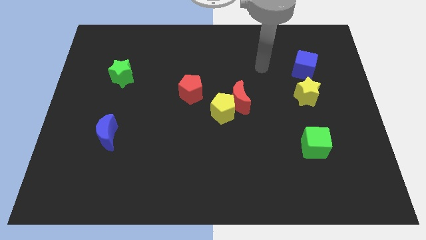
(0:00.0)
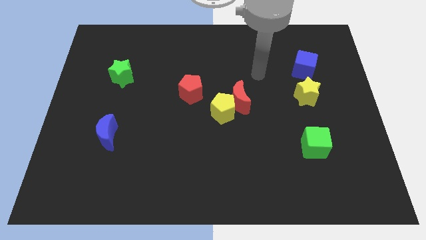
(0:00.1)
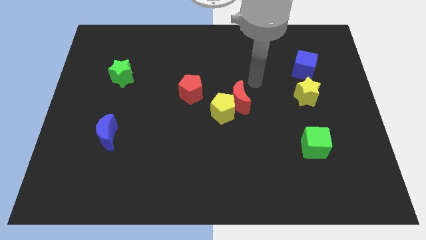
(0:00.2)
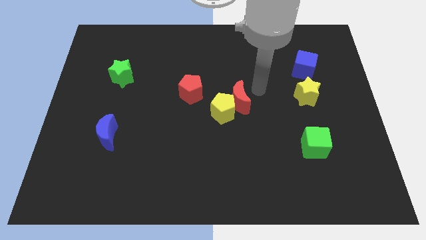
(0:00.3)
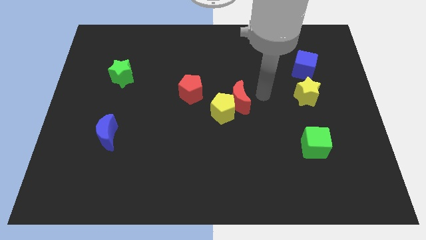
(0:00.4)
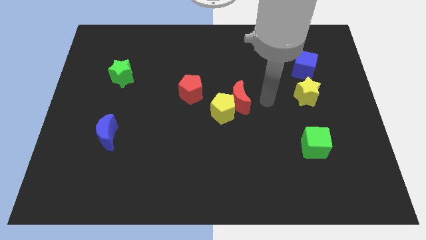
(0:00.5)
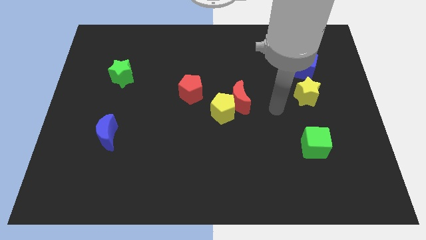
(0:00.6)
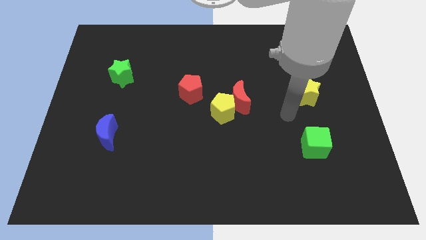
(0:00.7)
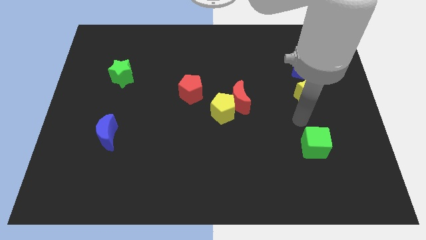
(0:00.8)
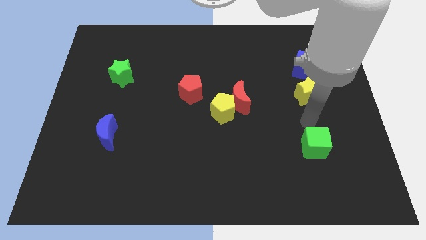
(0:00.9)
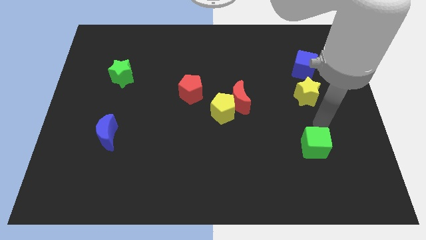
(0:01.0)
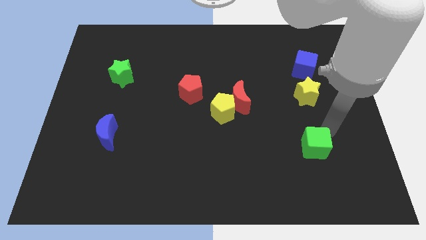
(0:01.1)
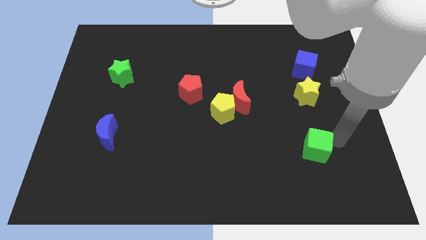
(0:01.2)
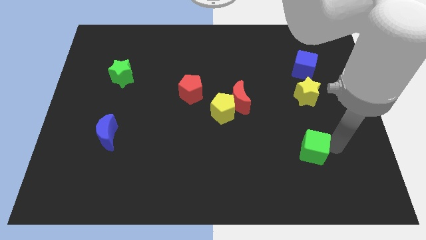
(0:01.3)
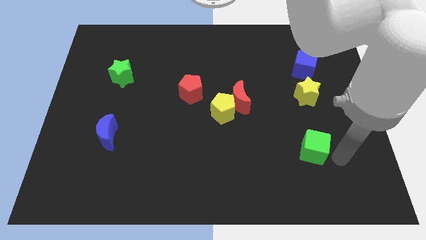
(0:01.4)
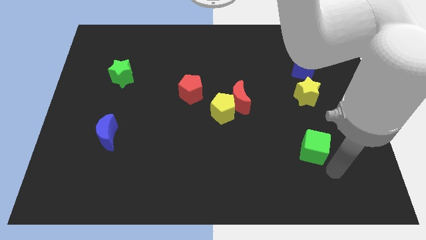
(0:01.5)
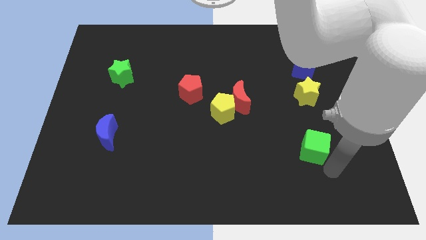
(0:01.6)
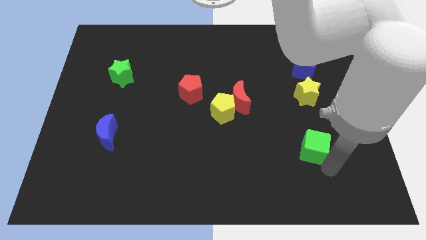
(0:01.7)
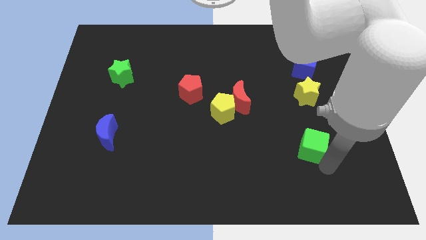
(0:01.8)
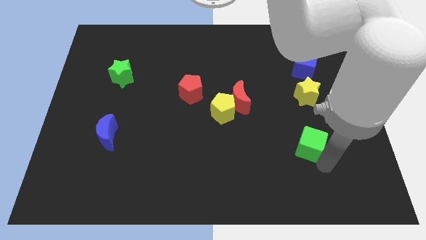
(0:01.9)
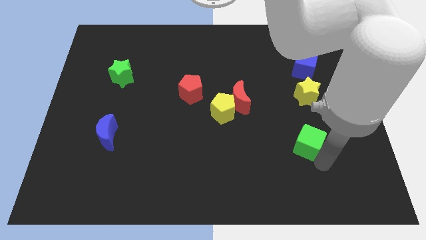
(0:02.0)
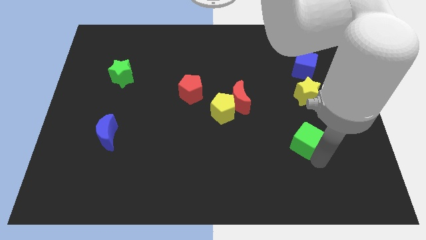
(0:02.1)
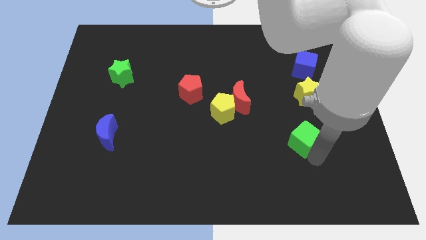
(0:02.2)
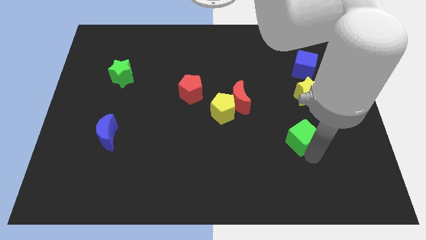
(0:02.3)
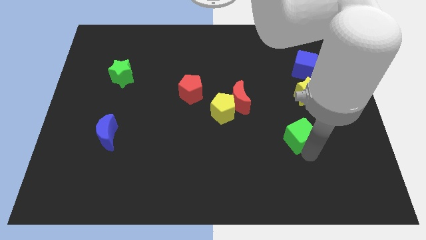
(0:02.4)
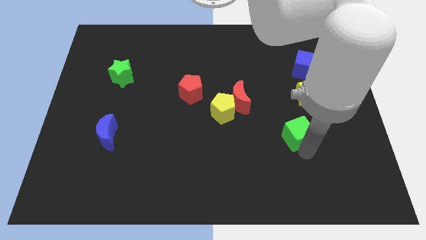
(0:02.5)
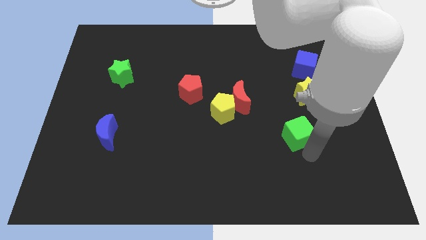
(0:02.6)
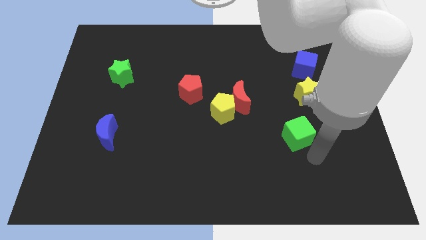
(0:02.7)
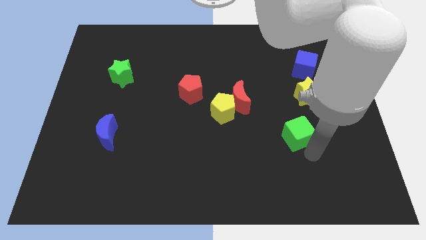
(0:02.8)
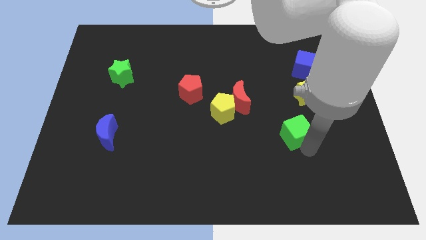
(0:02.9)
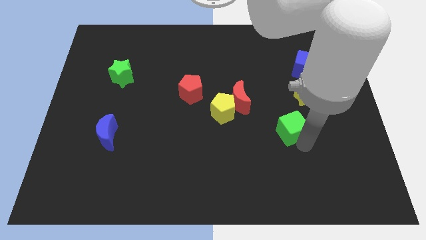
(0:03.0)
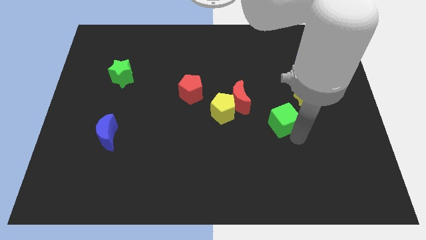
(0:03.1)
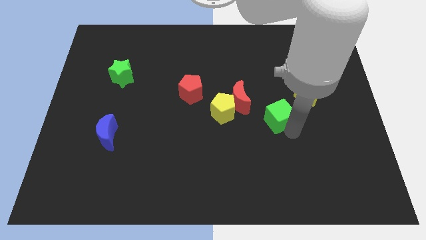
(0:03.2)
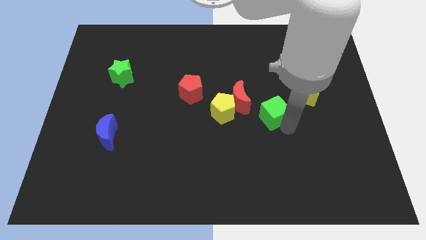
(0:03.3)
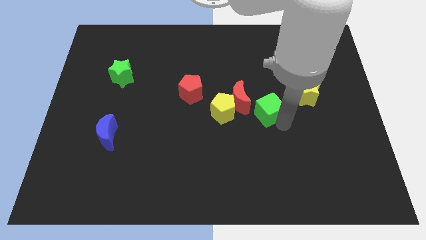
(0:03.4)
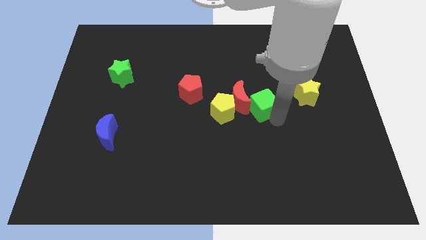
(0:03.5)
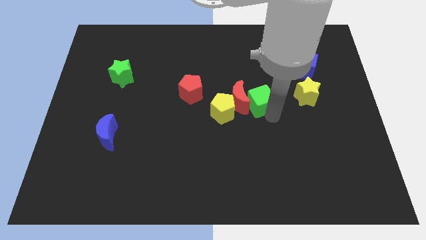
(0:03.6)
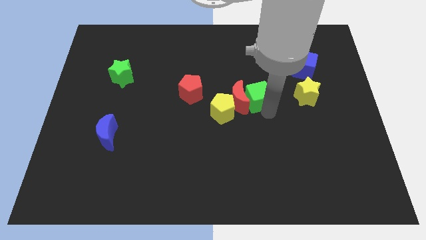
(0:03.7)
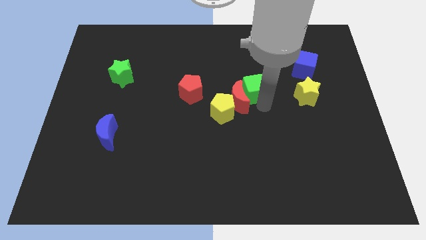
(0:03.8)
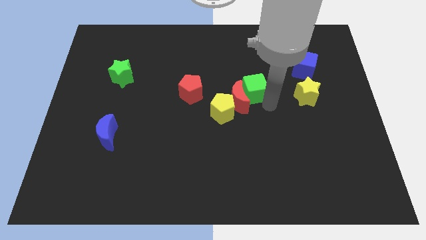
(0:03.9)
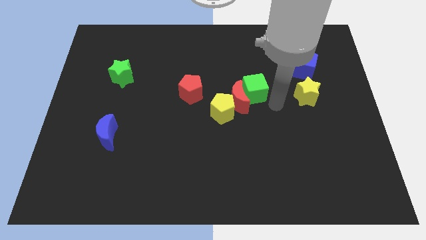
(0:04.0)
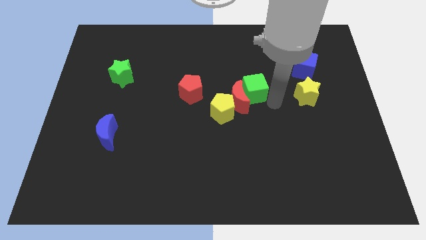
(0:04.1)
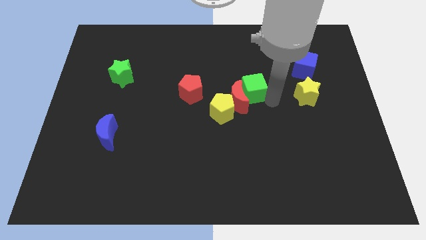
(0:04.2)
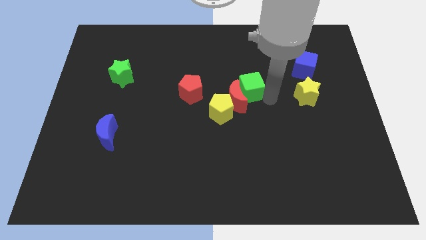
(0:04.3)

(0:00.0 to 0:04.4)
move the green cube up and left diagonally

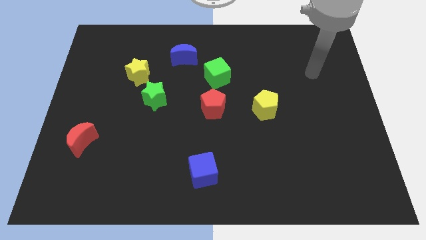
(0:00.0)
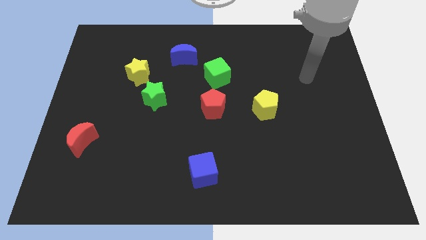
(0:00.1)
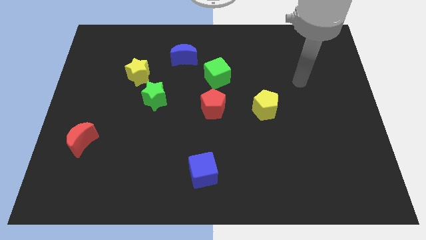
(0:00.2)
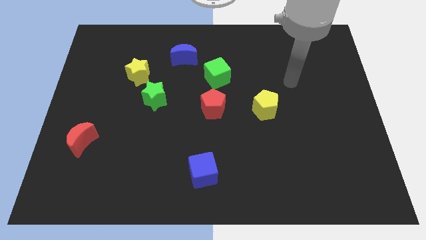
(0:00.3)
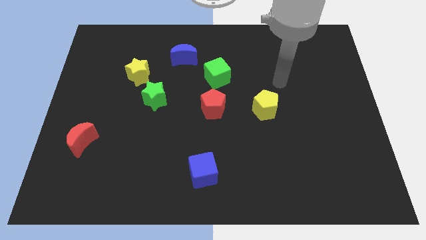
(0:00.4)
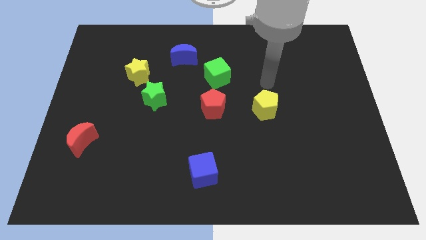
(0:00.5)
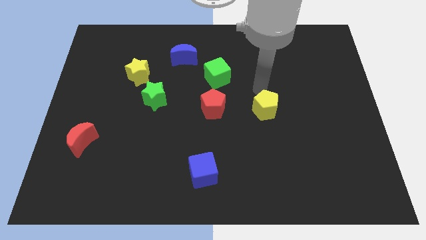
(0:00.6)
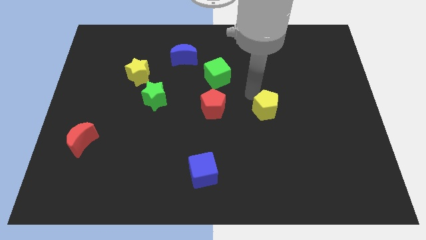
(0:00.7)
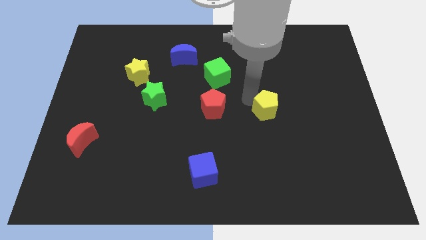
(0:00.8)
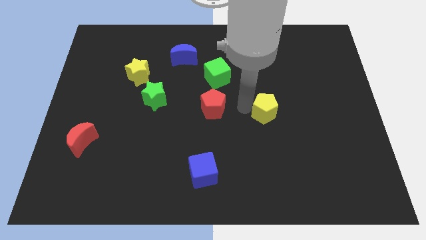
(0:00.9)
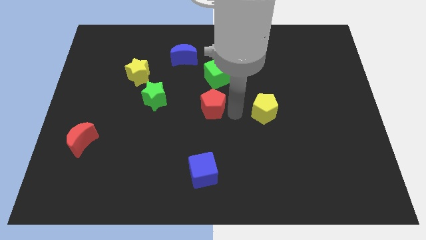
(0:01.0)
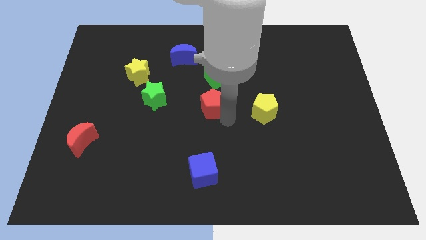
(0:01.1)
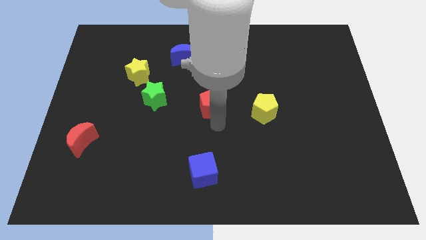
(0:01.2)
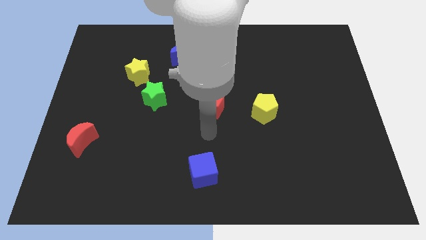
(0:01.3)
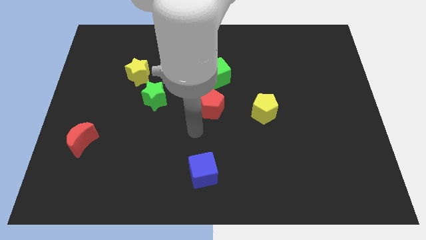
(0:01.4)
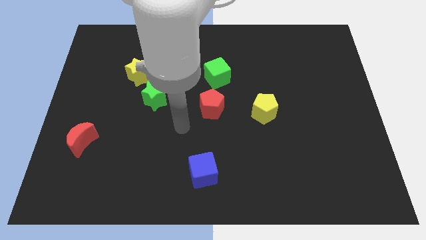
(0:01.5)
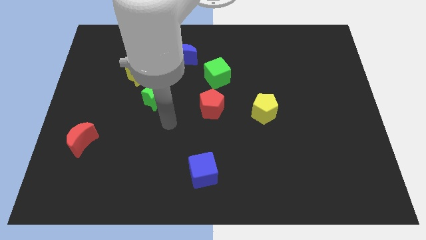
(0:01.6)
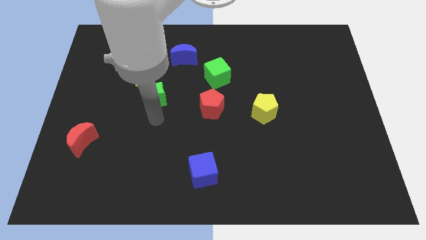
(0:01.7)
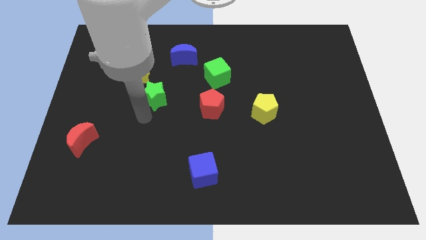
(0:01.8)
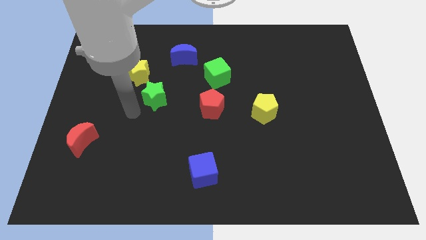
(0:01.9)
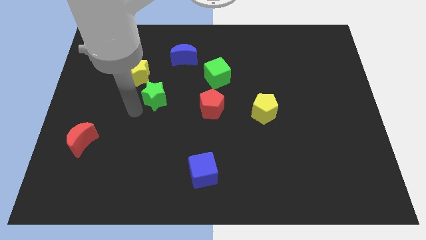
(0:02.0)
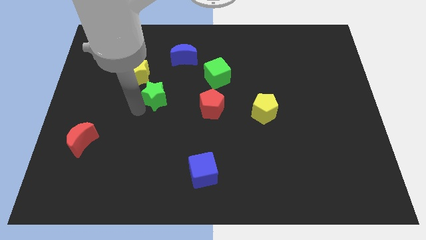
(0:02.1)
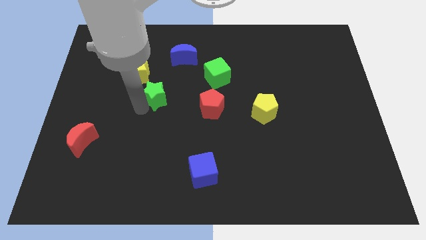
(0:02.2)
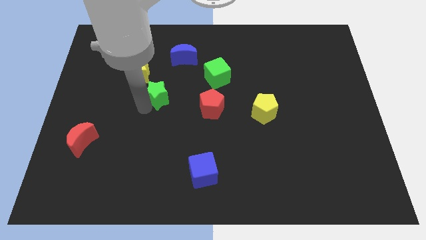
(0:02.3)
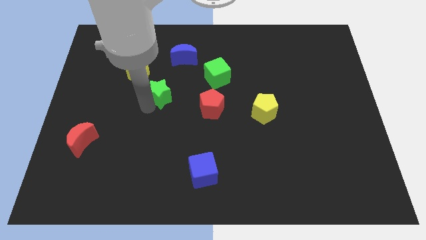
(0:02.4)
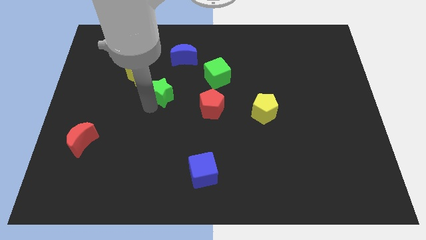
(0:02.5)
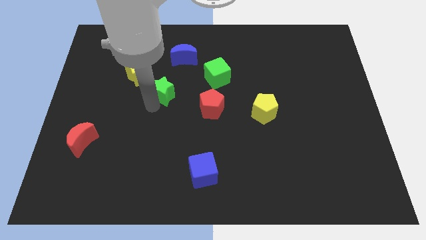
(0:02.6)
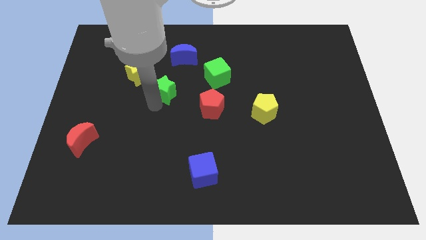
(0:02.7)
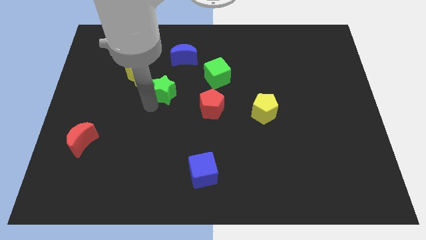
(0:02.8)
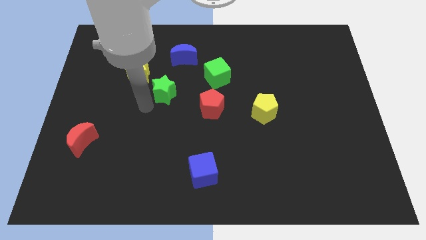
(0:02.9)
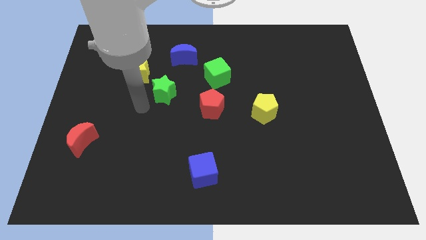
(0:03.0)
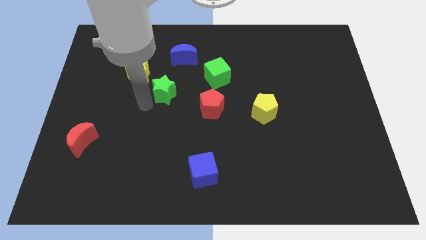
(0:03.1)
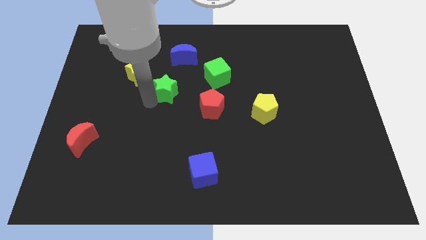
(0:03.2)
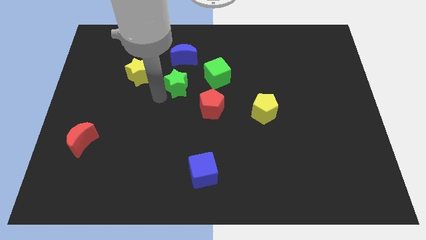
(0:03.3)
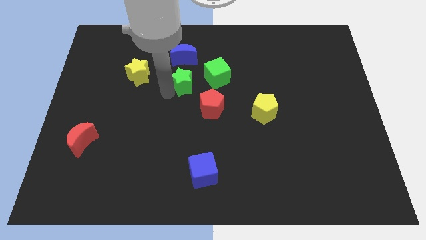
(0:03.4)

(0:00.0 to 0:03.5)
push the green star slightly diagonally upwards and to the right
